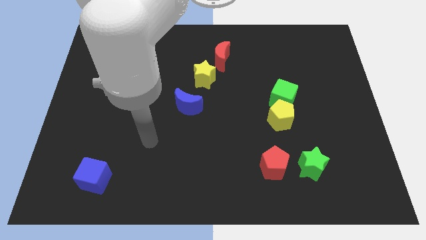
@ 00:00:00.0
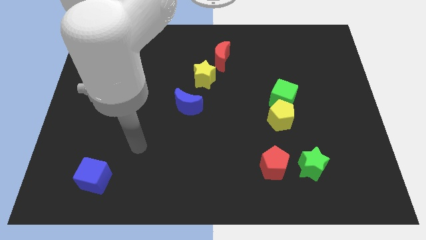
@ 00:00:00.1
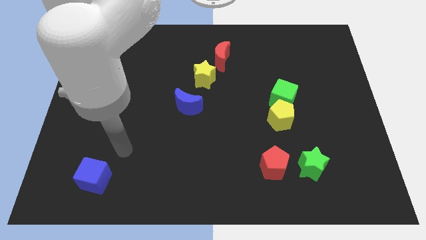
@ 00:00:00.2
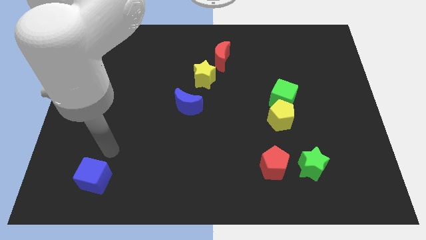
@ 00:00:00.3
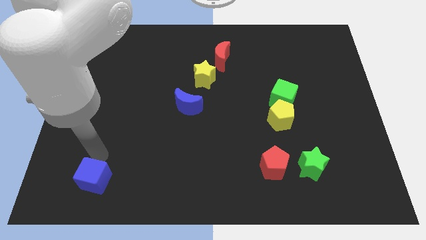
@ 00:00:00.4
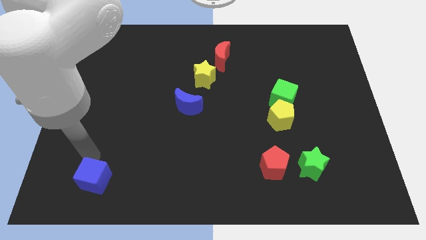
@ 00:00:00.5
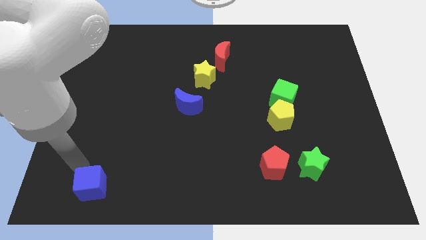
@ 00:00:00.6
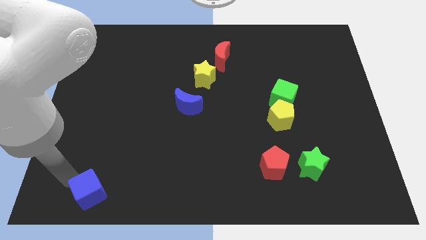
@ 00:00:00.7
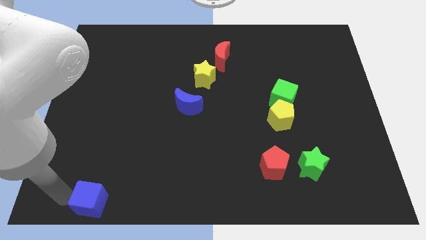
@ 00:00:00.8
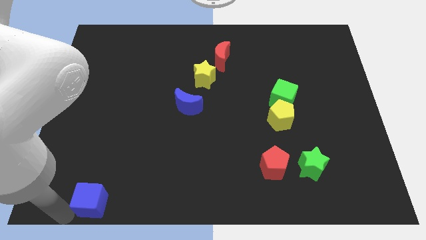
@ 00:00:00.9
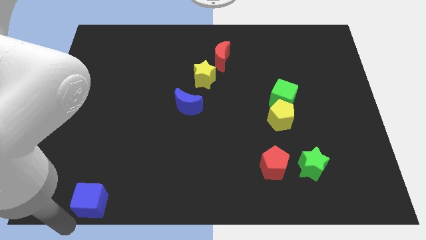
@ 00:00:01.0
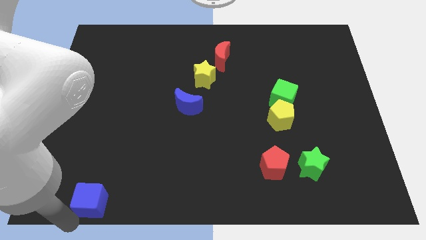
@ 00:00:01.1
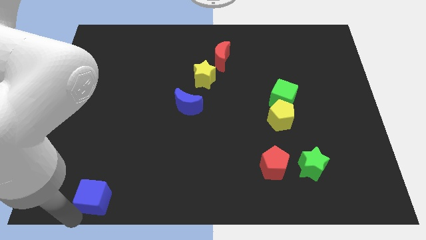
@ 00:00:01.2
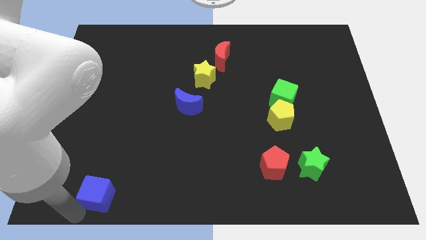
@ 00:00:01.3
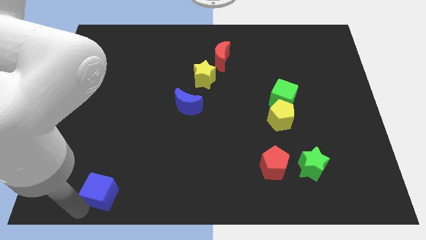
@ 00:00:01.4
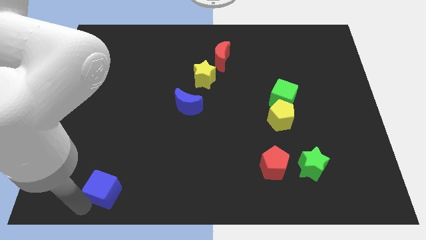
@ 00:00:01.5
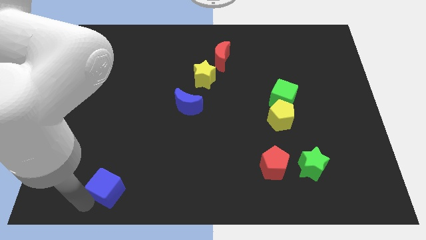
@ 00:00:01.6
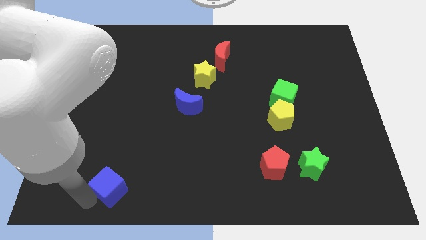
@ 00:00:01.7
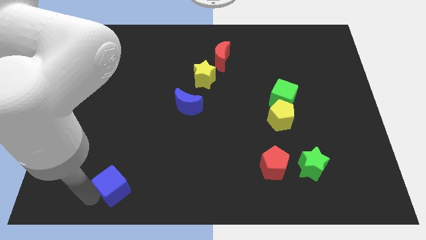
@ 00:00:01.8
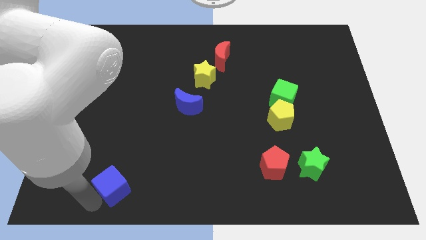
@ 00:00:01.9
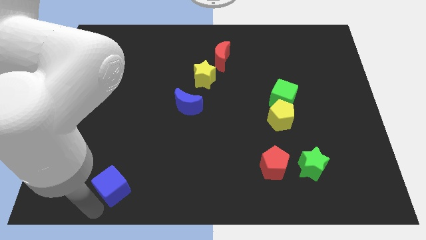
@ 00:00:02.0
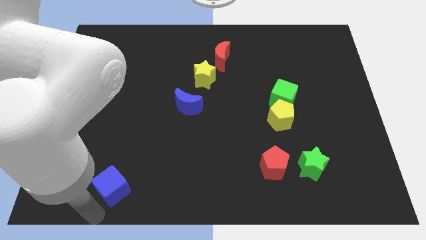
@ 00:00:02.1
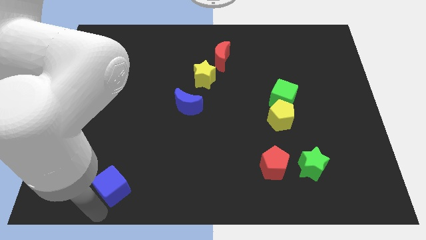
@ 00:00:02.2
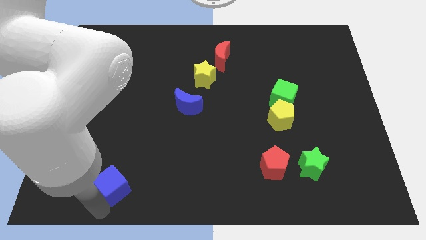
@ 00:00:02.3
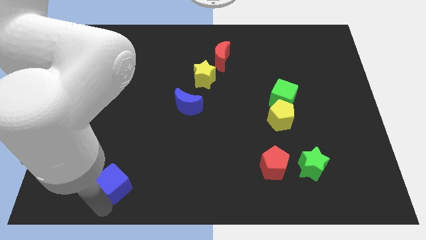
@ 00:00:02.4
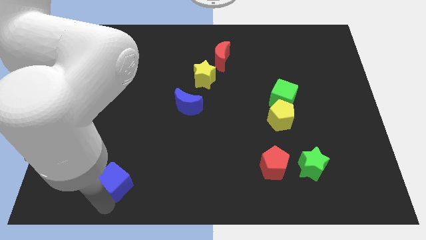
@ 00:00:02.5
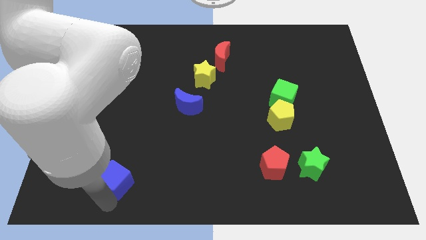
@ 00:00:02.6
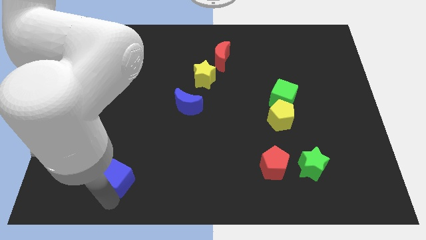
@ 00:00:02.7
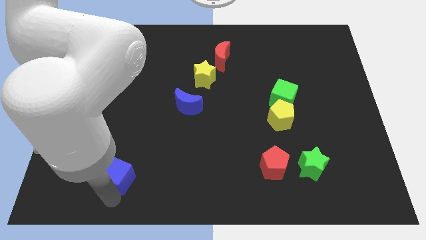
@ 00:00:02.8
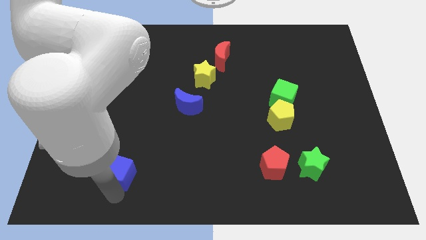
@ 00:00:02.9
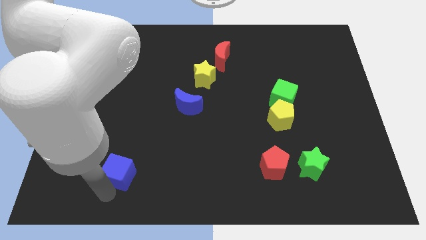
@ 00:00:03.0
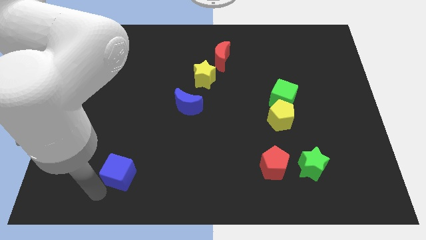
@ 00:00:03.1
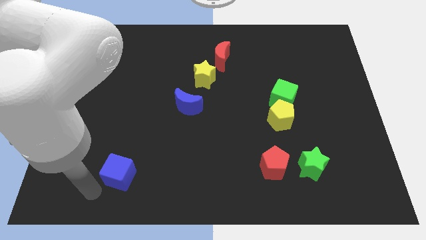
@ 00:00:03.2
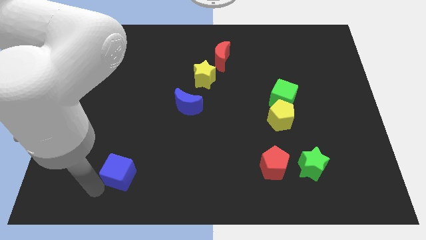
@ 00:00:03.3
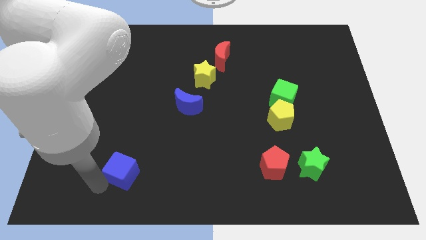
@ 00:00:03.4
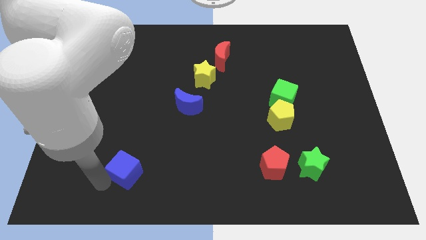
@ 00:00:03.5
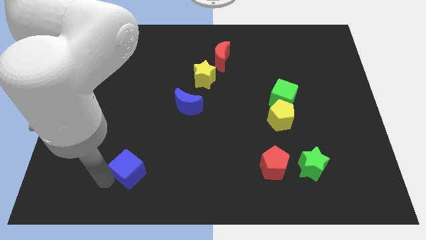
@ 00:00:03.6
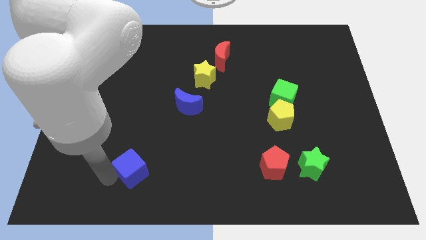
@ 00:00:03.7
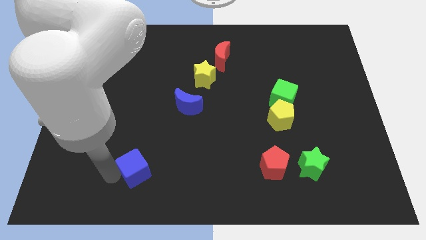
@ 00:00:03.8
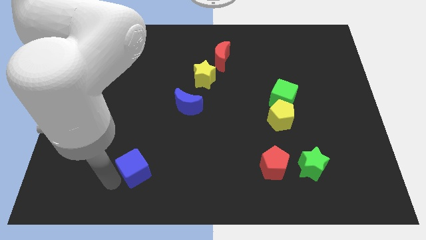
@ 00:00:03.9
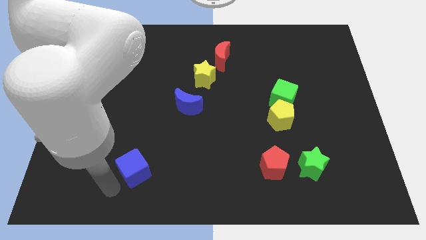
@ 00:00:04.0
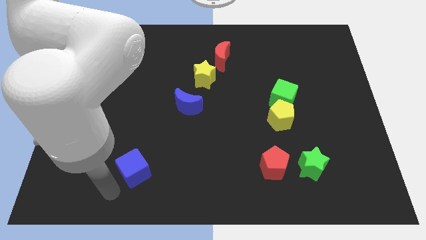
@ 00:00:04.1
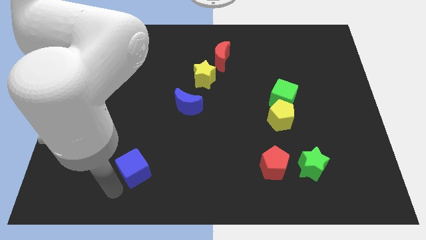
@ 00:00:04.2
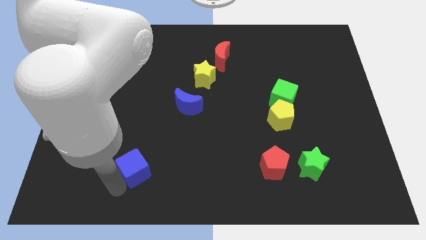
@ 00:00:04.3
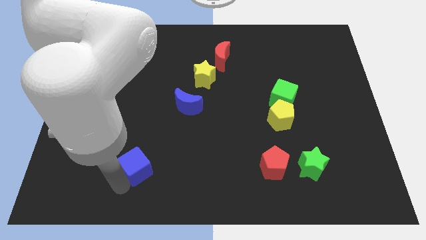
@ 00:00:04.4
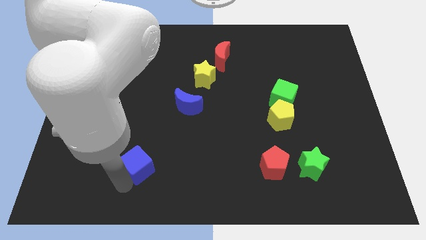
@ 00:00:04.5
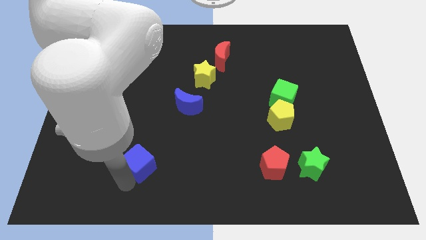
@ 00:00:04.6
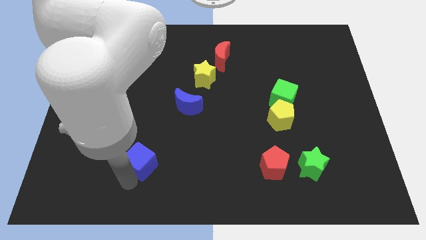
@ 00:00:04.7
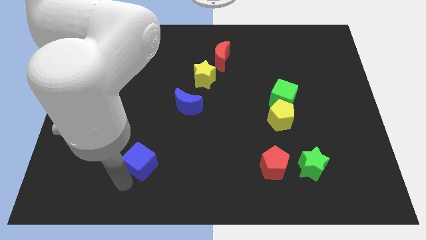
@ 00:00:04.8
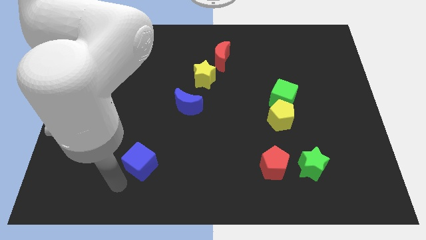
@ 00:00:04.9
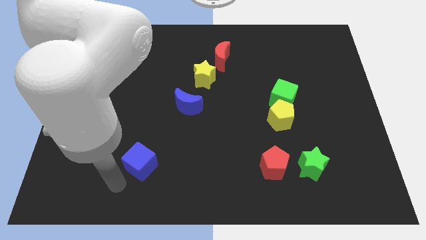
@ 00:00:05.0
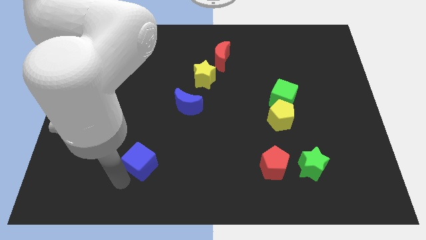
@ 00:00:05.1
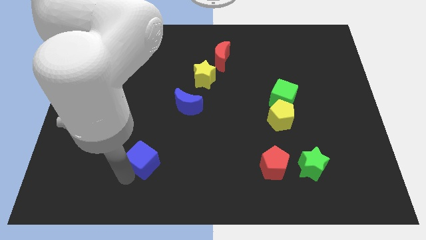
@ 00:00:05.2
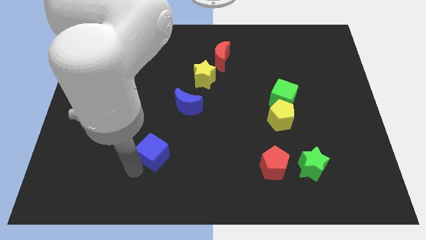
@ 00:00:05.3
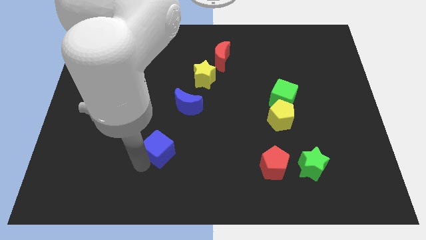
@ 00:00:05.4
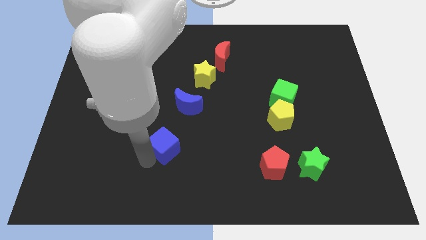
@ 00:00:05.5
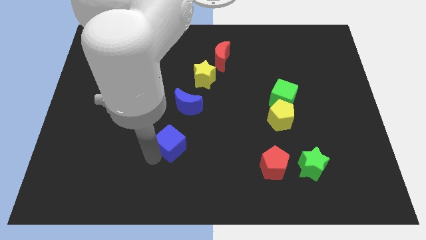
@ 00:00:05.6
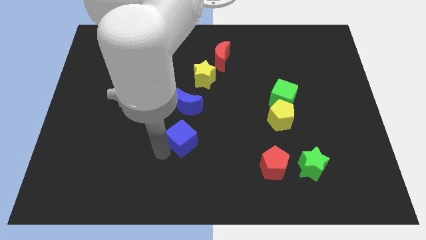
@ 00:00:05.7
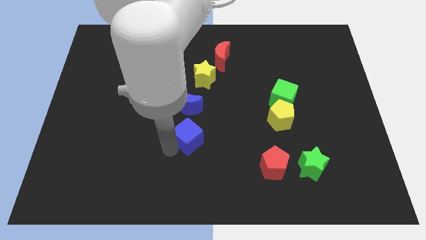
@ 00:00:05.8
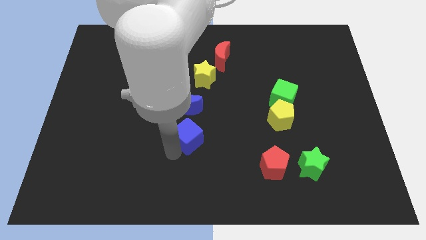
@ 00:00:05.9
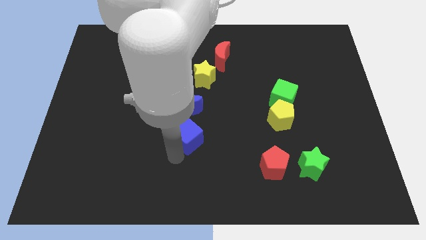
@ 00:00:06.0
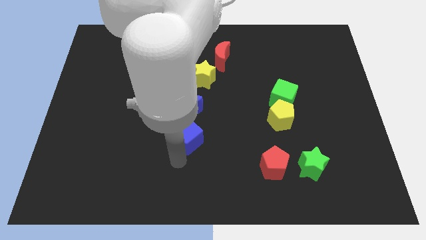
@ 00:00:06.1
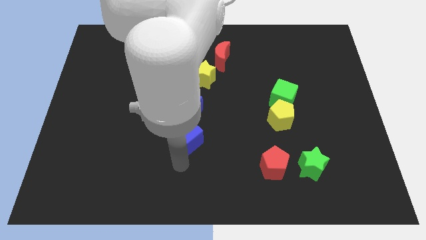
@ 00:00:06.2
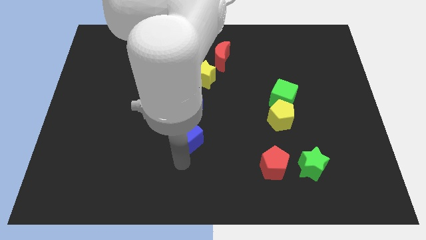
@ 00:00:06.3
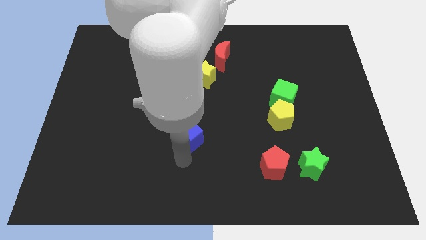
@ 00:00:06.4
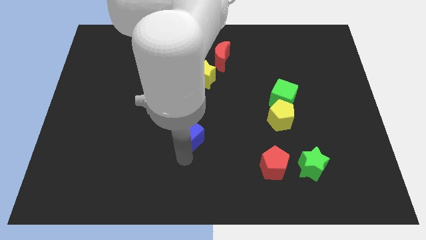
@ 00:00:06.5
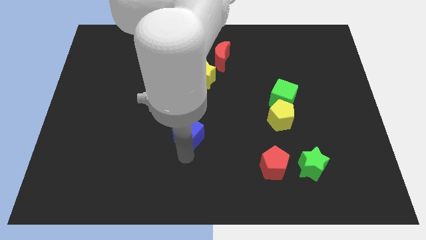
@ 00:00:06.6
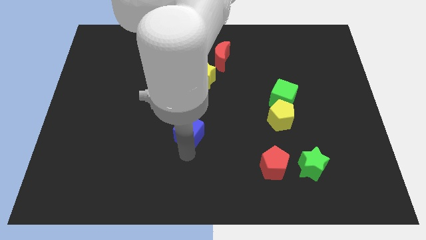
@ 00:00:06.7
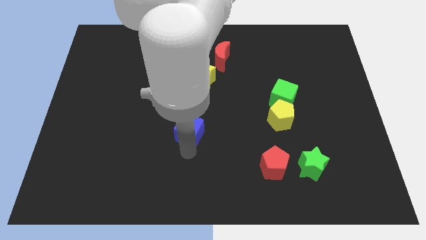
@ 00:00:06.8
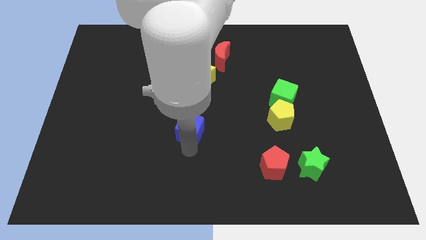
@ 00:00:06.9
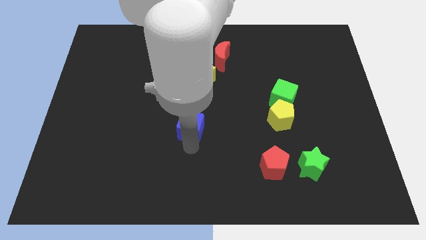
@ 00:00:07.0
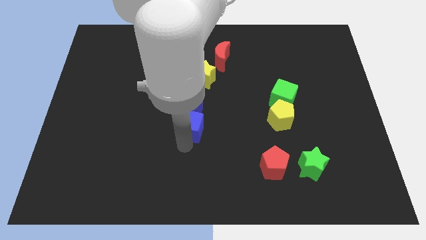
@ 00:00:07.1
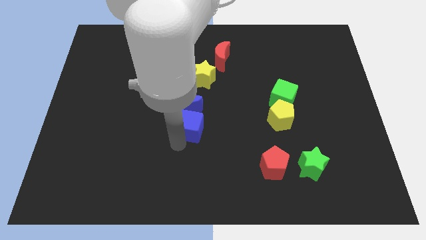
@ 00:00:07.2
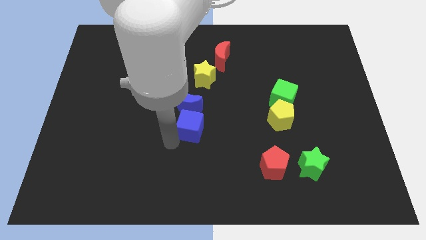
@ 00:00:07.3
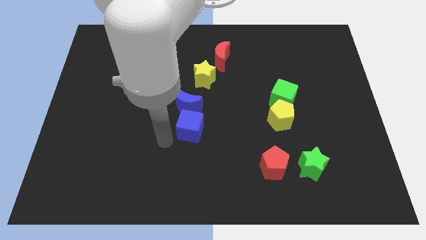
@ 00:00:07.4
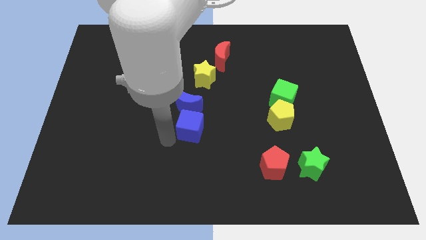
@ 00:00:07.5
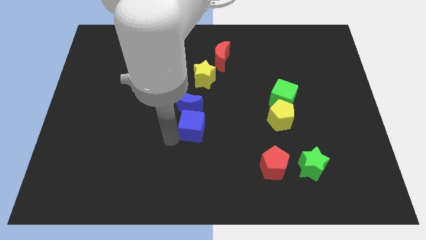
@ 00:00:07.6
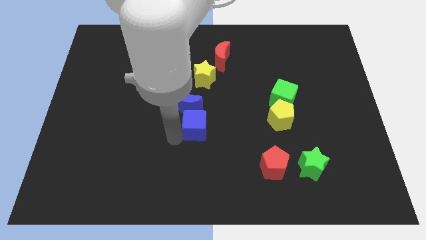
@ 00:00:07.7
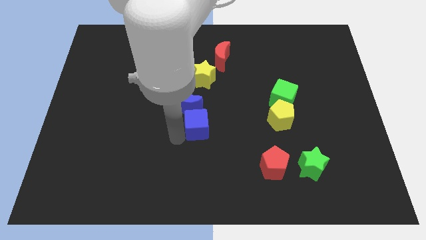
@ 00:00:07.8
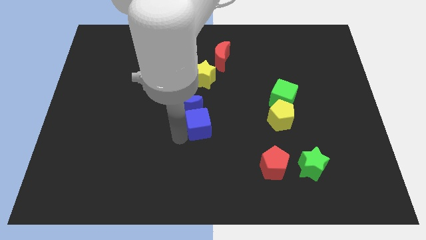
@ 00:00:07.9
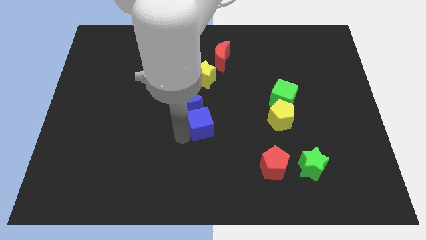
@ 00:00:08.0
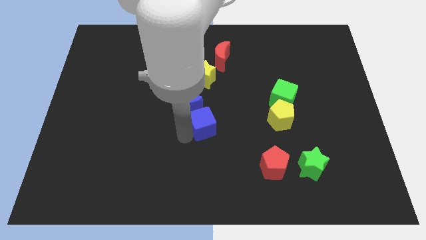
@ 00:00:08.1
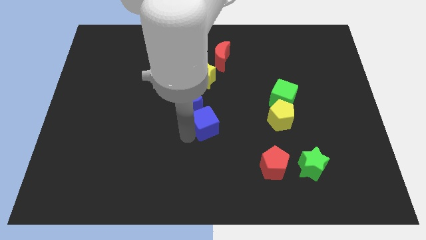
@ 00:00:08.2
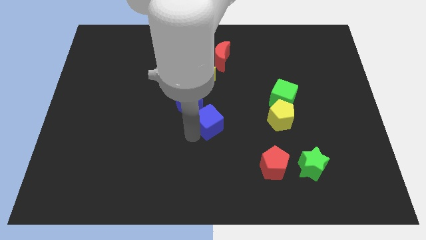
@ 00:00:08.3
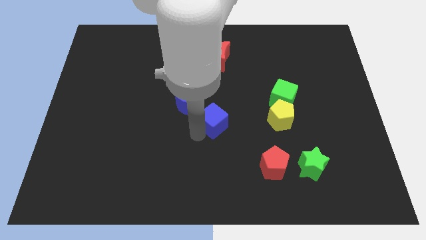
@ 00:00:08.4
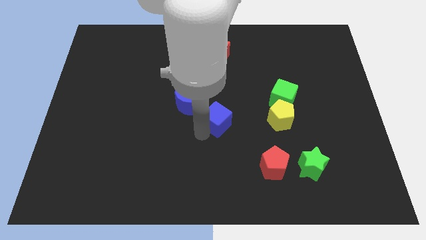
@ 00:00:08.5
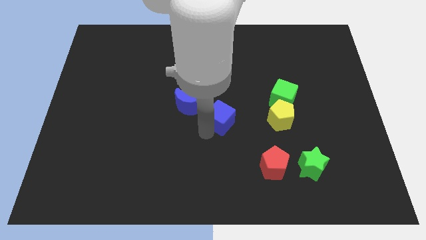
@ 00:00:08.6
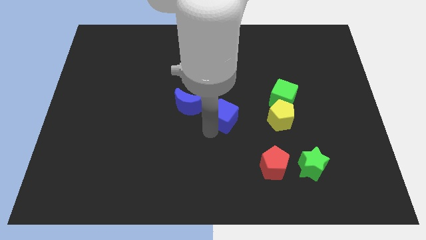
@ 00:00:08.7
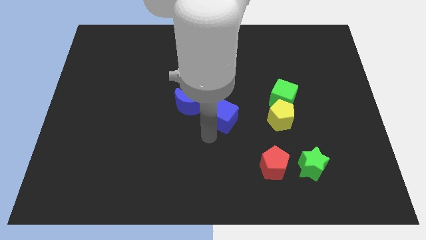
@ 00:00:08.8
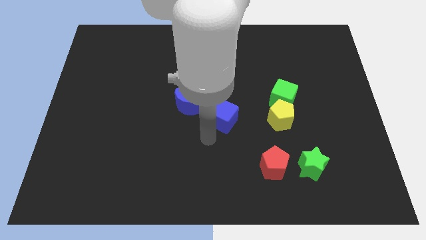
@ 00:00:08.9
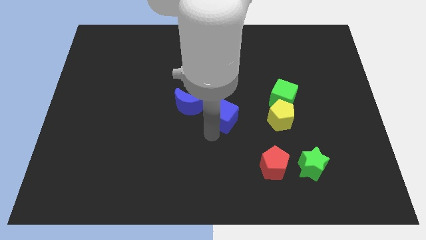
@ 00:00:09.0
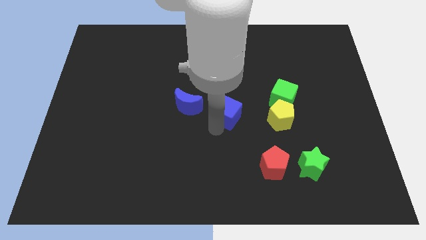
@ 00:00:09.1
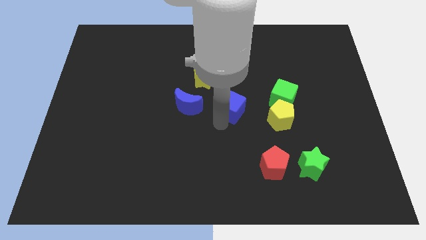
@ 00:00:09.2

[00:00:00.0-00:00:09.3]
move the blue cube to the left side of the green cube
